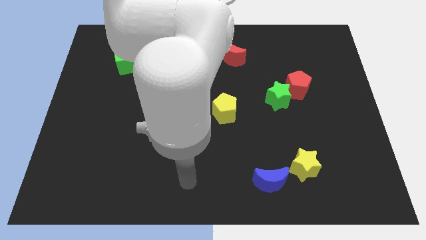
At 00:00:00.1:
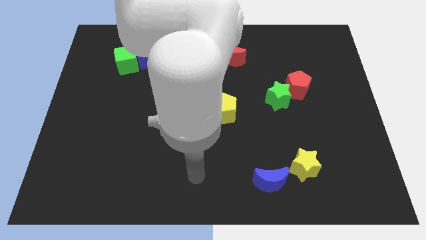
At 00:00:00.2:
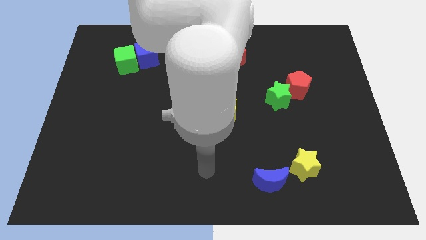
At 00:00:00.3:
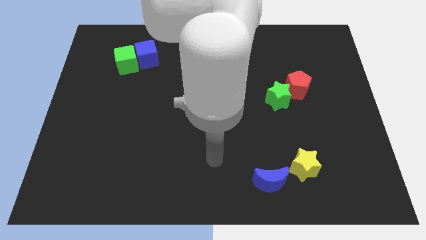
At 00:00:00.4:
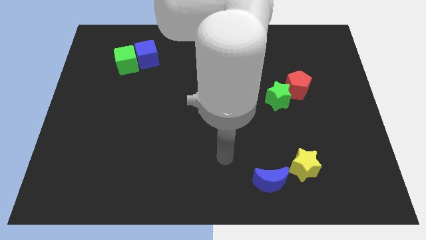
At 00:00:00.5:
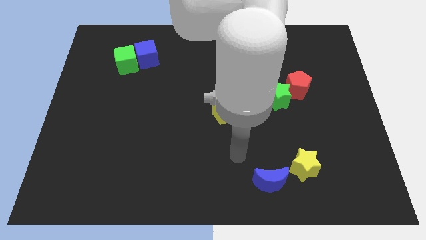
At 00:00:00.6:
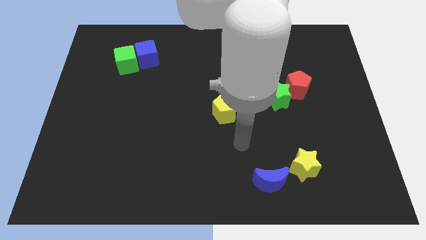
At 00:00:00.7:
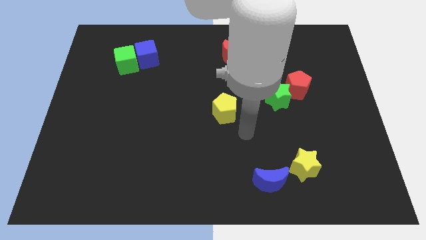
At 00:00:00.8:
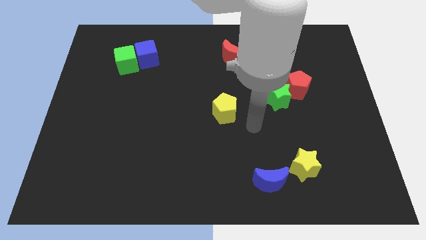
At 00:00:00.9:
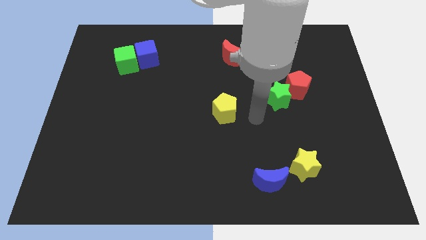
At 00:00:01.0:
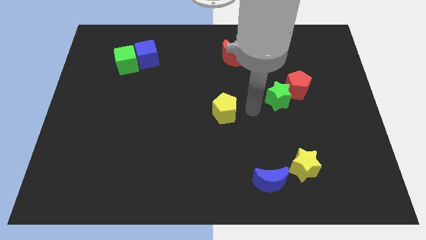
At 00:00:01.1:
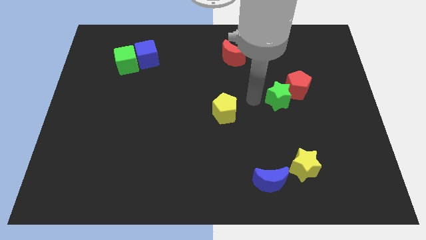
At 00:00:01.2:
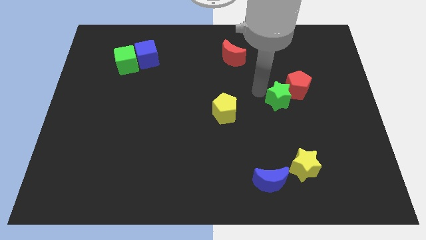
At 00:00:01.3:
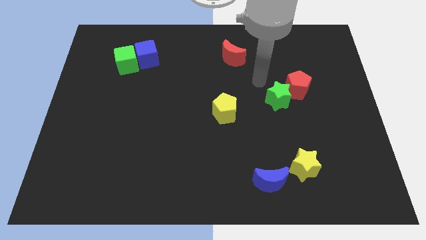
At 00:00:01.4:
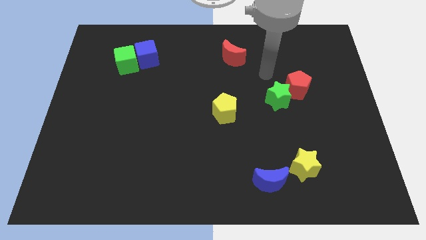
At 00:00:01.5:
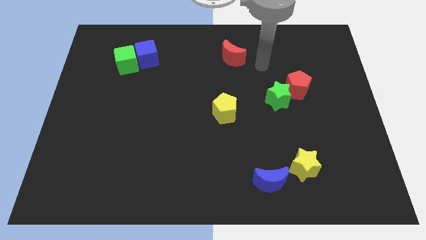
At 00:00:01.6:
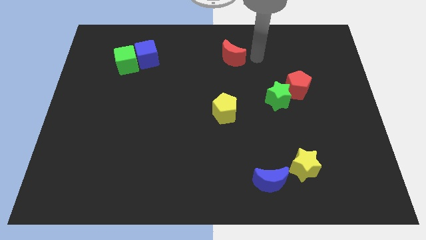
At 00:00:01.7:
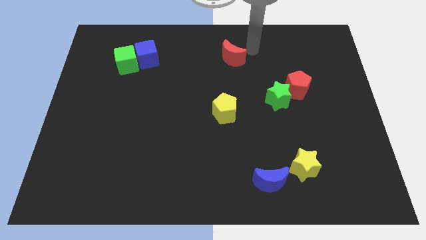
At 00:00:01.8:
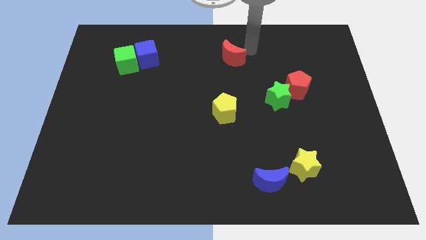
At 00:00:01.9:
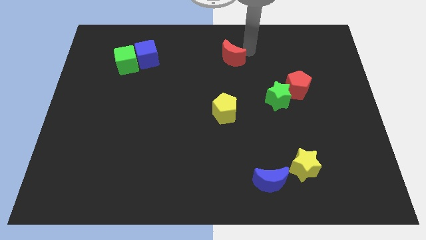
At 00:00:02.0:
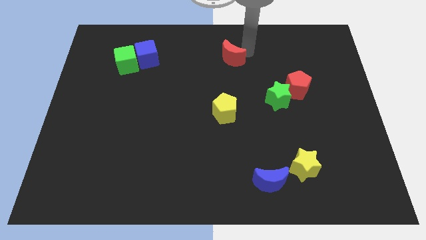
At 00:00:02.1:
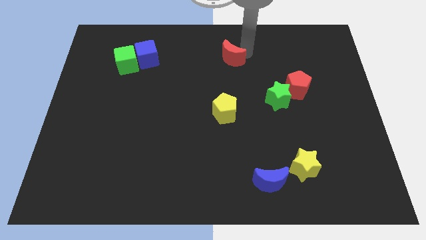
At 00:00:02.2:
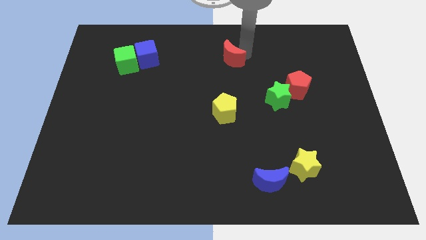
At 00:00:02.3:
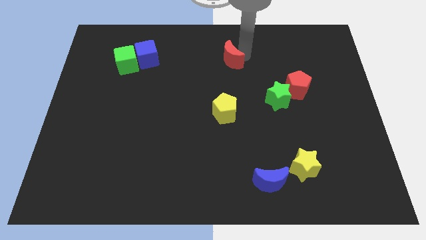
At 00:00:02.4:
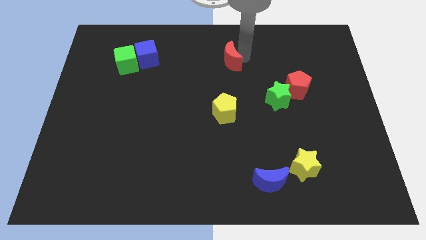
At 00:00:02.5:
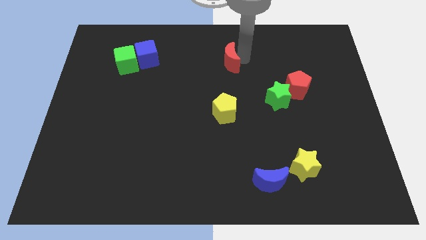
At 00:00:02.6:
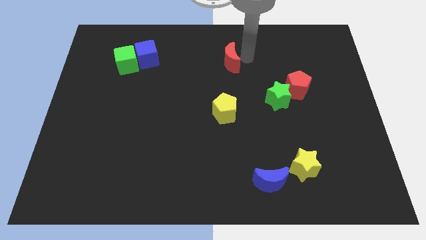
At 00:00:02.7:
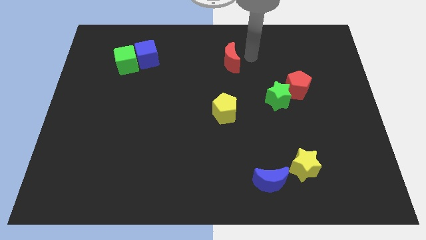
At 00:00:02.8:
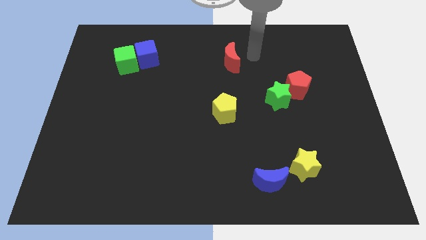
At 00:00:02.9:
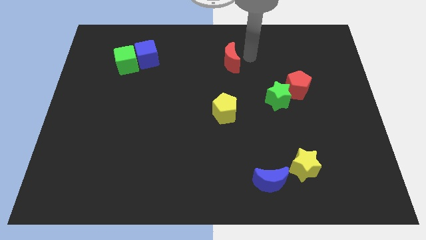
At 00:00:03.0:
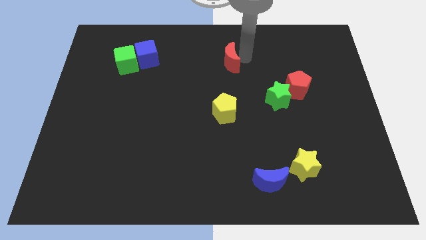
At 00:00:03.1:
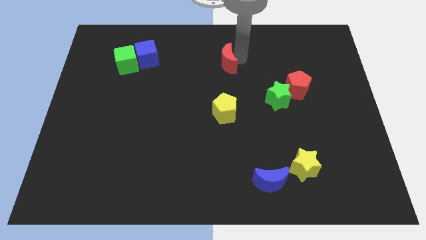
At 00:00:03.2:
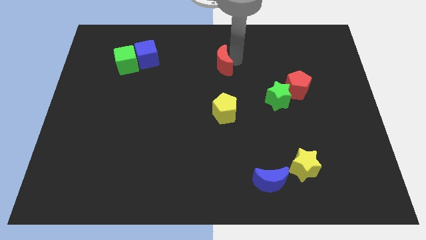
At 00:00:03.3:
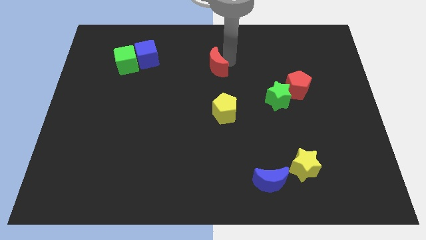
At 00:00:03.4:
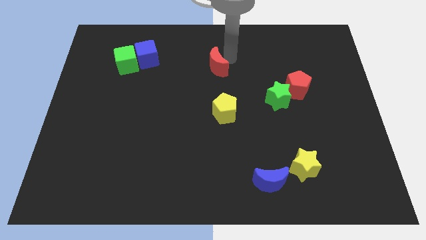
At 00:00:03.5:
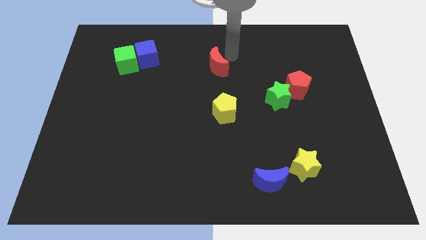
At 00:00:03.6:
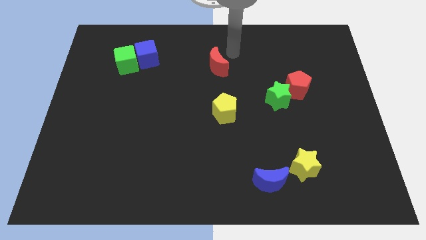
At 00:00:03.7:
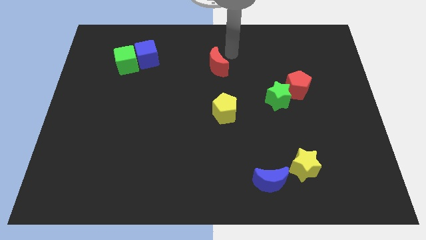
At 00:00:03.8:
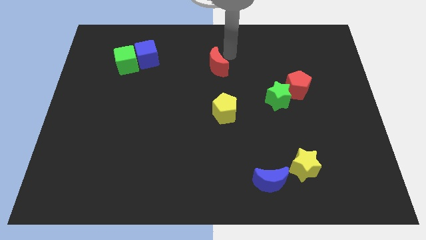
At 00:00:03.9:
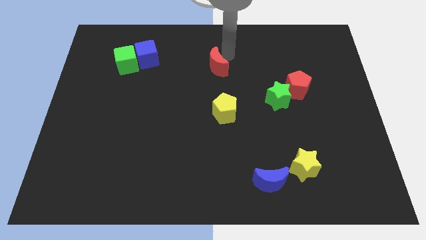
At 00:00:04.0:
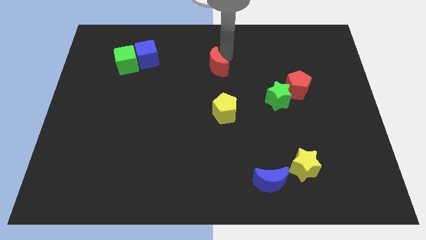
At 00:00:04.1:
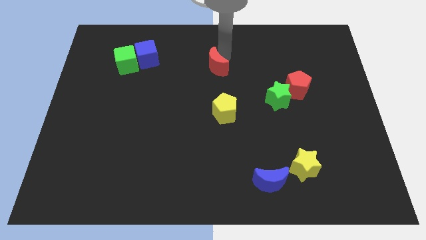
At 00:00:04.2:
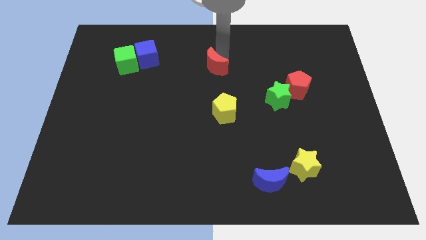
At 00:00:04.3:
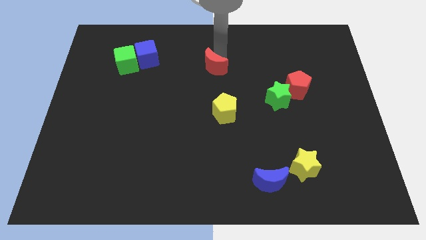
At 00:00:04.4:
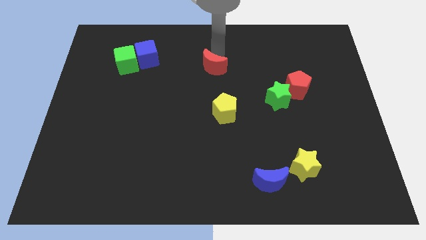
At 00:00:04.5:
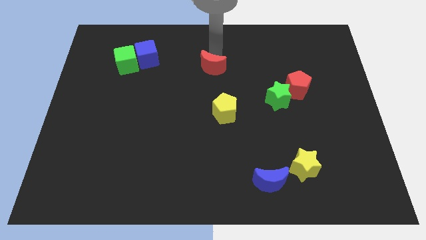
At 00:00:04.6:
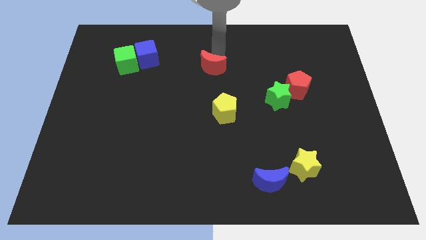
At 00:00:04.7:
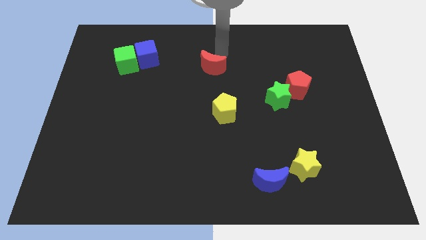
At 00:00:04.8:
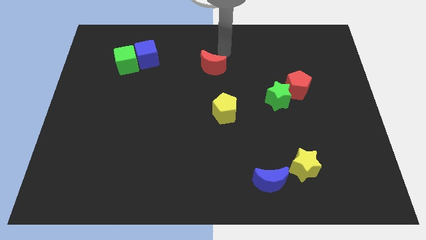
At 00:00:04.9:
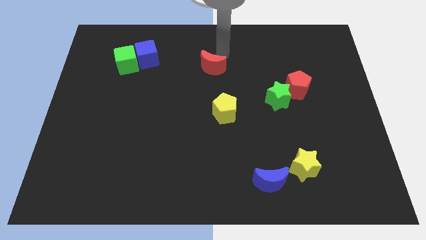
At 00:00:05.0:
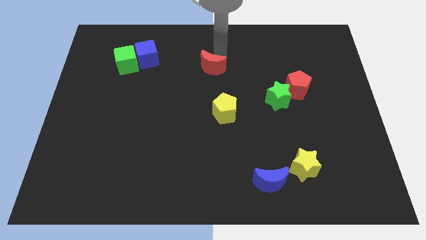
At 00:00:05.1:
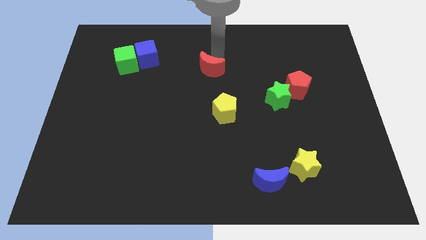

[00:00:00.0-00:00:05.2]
slide the red moon downwards and to the left diagonally a bit

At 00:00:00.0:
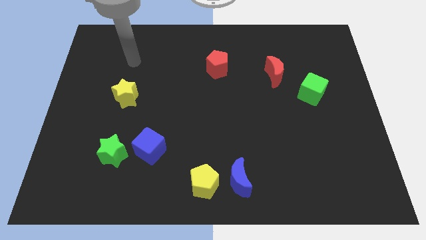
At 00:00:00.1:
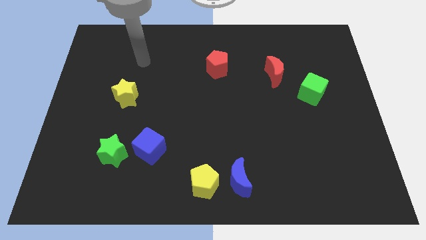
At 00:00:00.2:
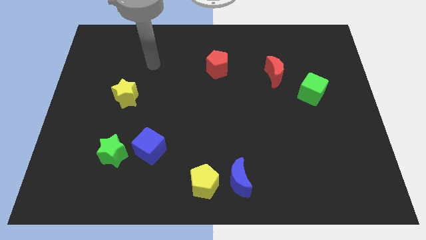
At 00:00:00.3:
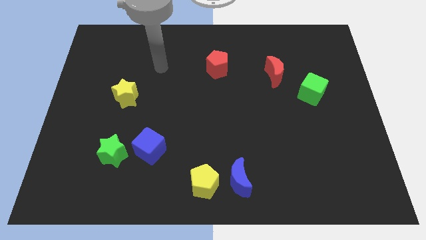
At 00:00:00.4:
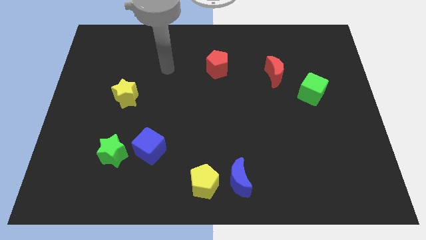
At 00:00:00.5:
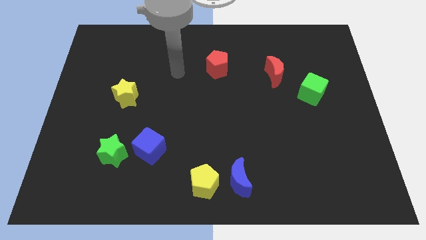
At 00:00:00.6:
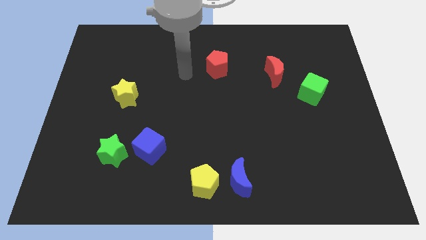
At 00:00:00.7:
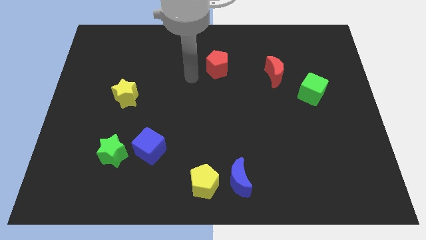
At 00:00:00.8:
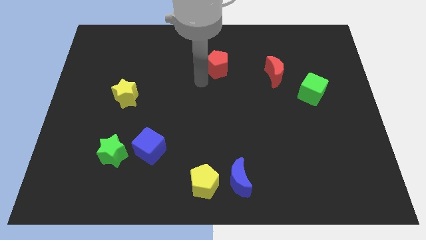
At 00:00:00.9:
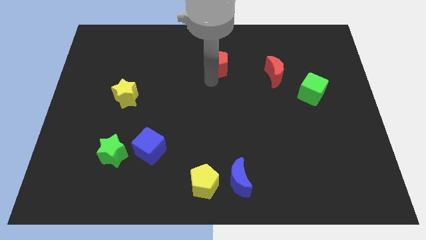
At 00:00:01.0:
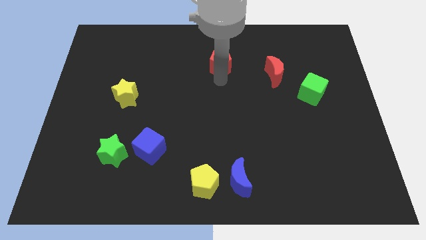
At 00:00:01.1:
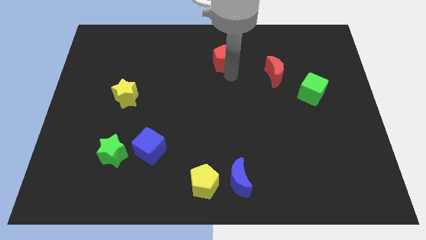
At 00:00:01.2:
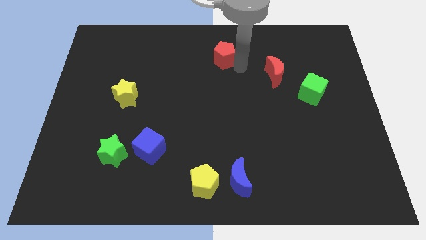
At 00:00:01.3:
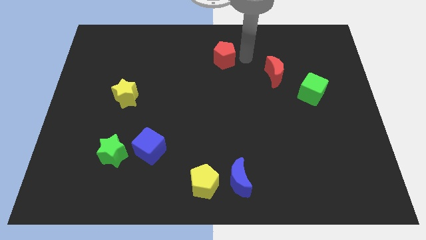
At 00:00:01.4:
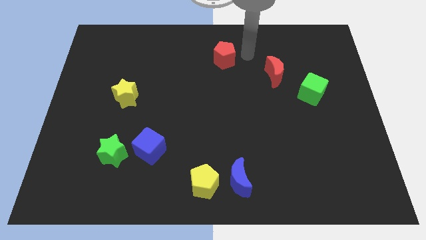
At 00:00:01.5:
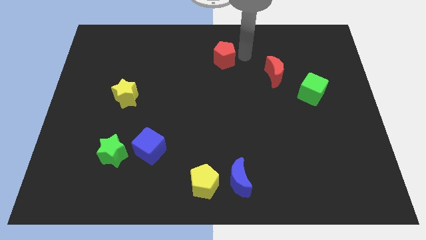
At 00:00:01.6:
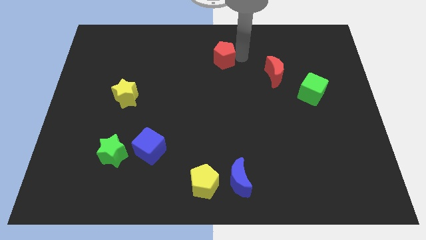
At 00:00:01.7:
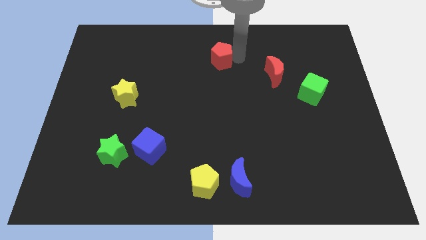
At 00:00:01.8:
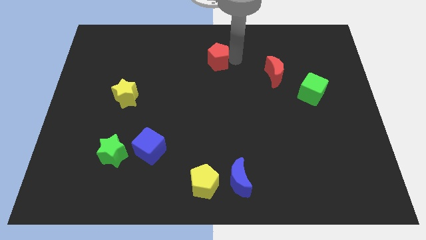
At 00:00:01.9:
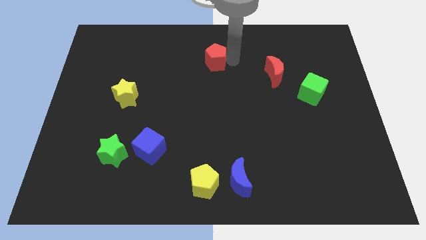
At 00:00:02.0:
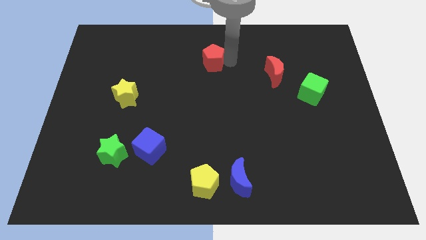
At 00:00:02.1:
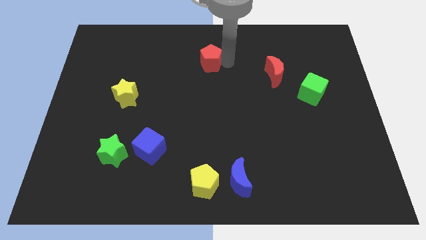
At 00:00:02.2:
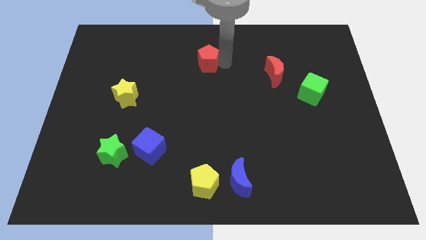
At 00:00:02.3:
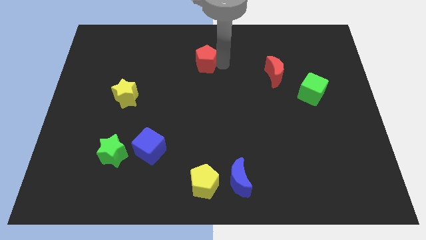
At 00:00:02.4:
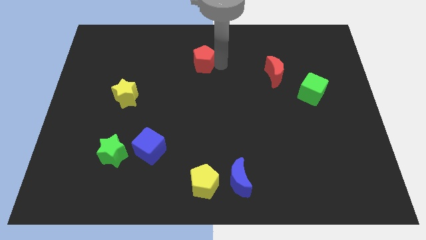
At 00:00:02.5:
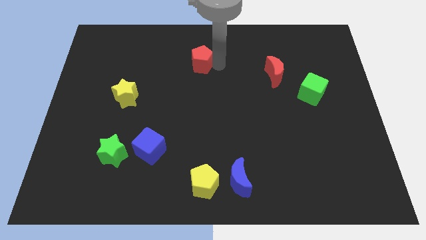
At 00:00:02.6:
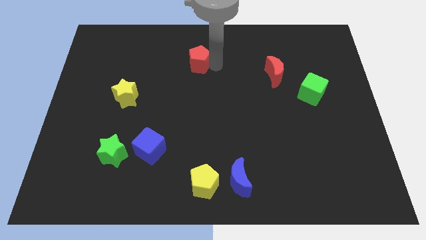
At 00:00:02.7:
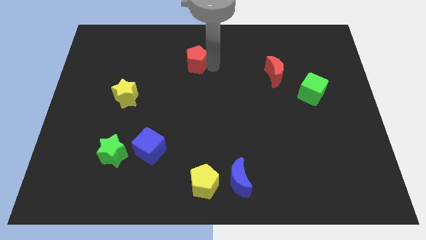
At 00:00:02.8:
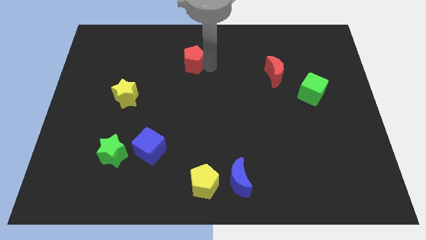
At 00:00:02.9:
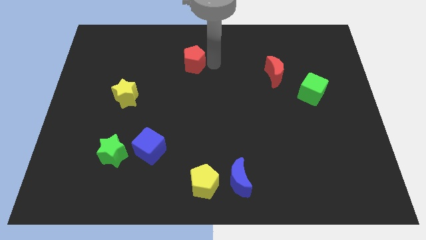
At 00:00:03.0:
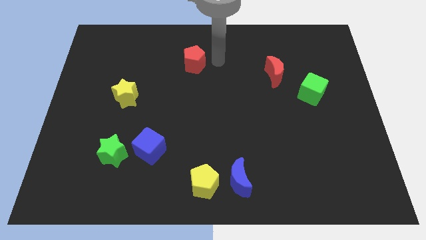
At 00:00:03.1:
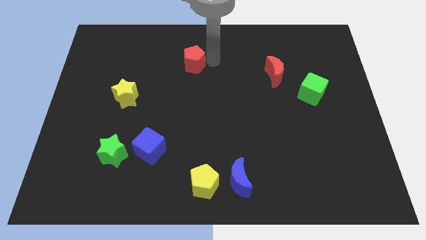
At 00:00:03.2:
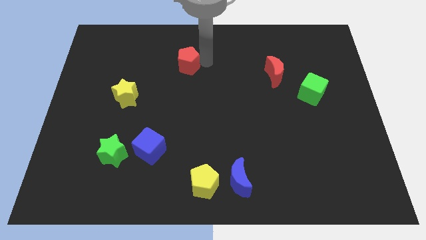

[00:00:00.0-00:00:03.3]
push the red pentagon left a little
